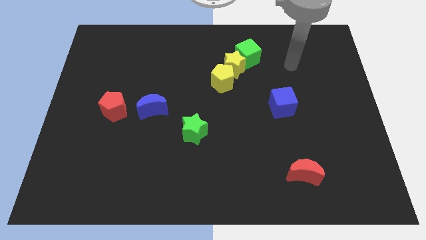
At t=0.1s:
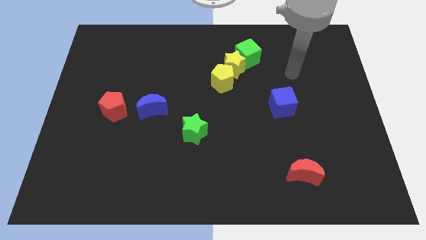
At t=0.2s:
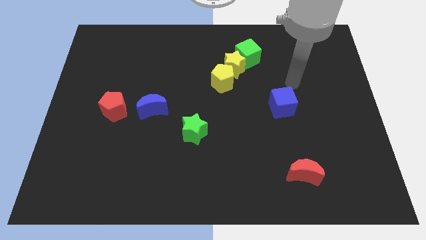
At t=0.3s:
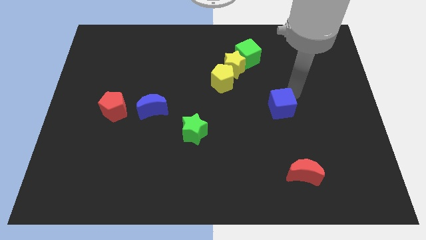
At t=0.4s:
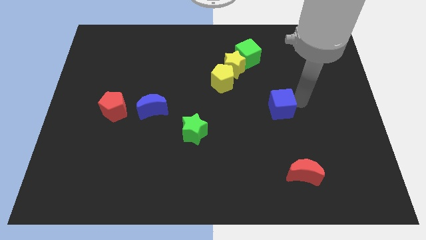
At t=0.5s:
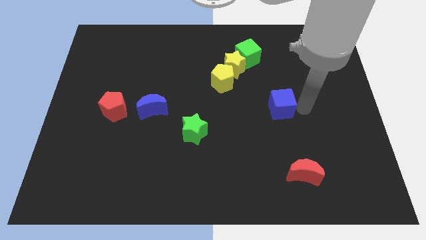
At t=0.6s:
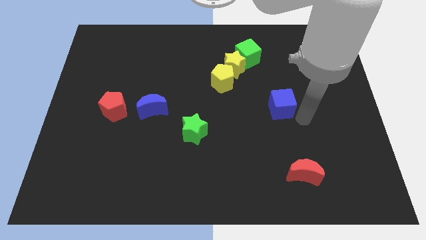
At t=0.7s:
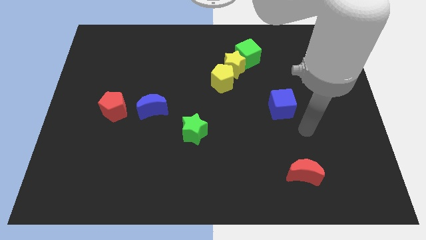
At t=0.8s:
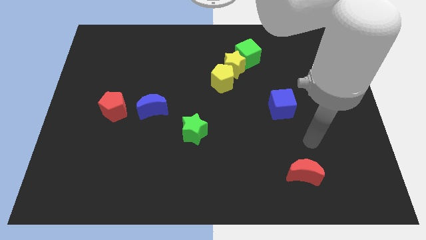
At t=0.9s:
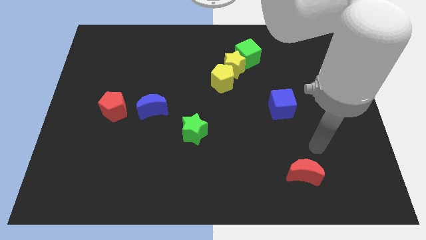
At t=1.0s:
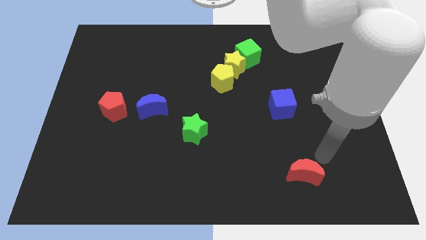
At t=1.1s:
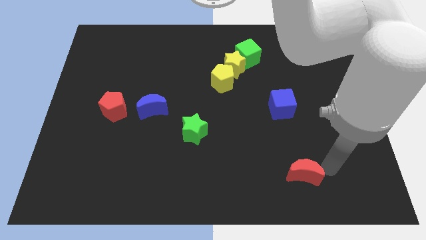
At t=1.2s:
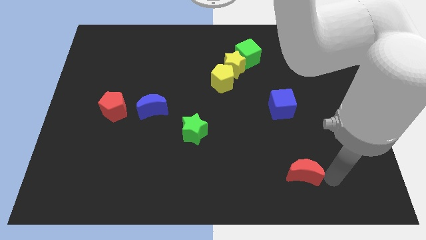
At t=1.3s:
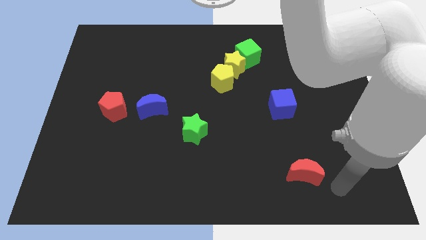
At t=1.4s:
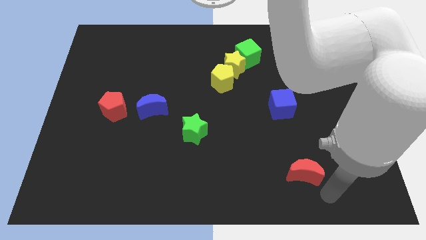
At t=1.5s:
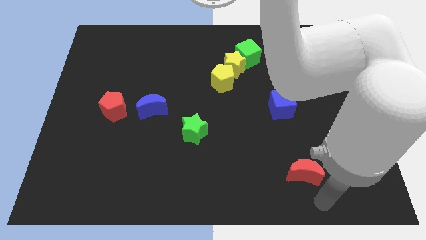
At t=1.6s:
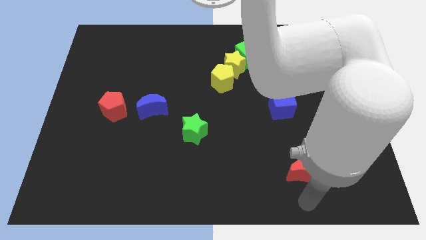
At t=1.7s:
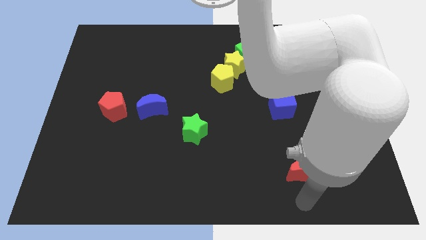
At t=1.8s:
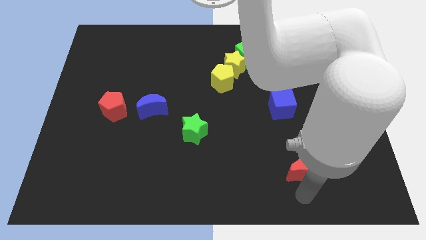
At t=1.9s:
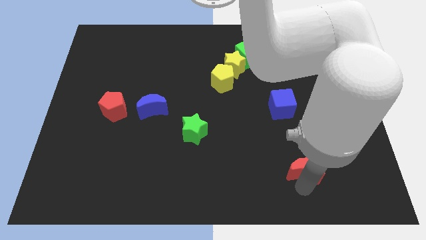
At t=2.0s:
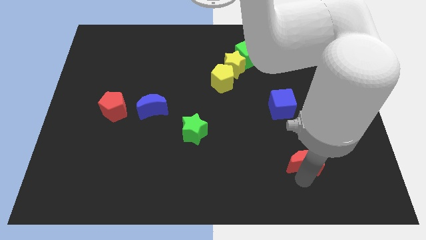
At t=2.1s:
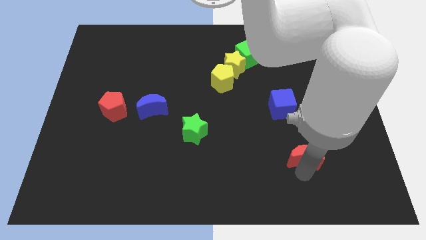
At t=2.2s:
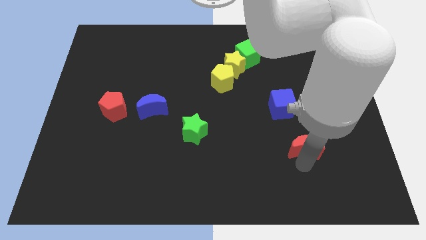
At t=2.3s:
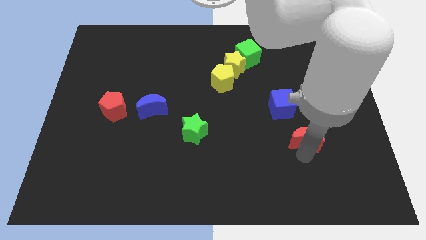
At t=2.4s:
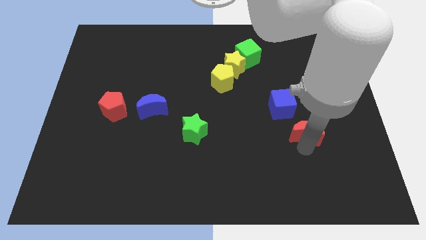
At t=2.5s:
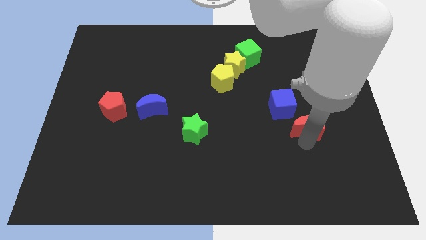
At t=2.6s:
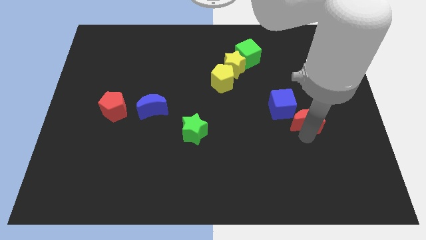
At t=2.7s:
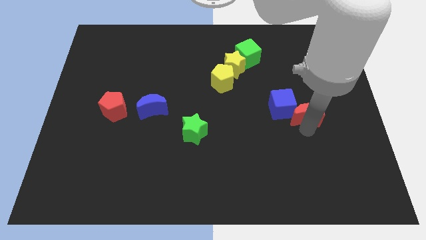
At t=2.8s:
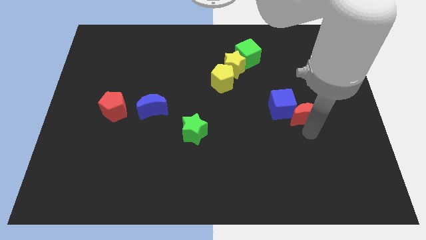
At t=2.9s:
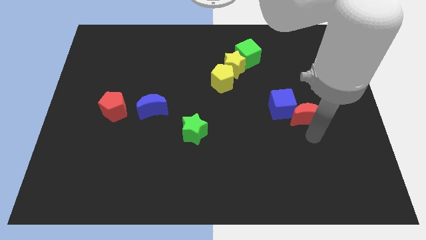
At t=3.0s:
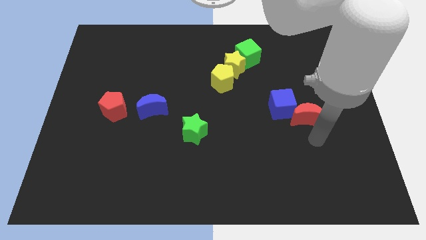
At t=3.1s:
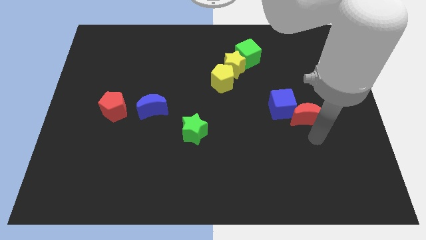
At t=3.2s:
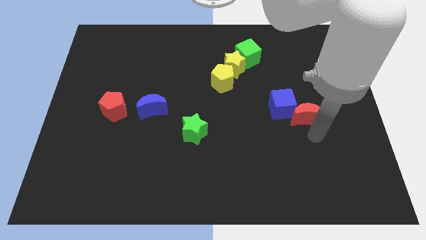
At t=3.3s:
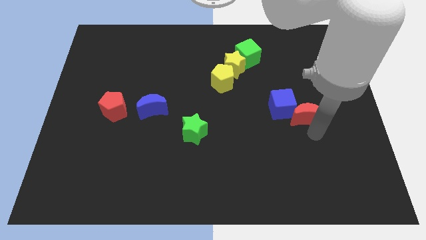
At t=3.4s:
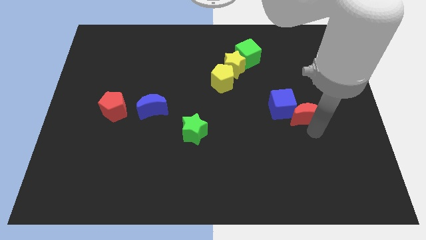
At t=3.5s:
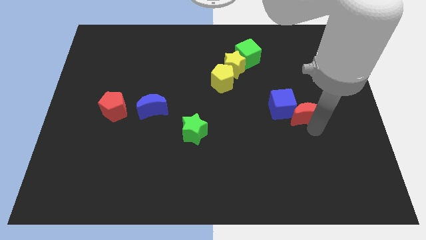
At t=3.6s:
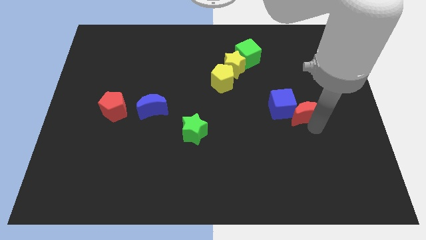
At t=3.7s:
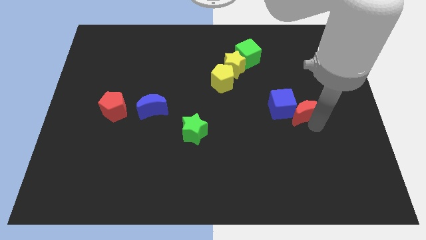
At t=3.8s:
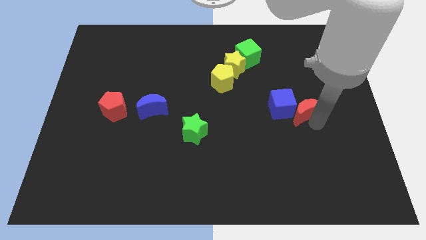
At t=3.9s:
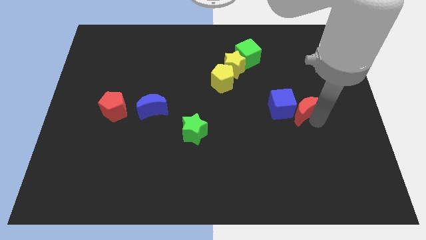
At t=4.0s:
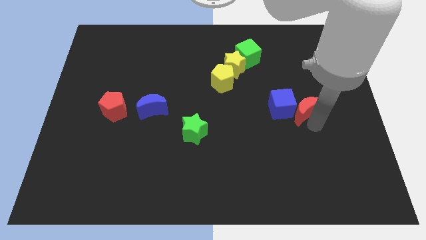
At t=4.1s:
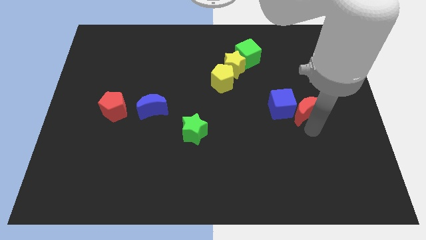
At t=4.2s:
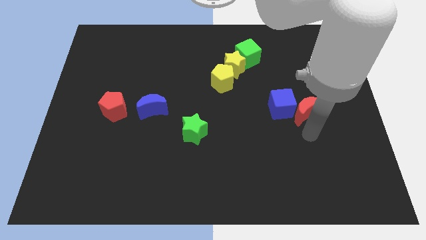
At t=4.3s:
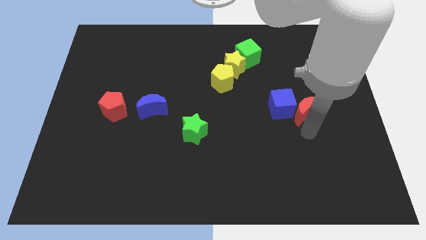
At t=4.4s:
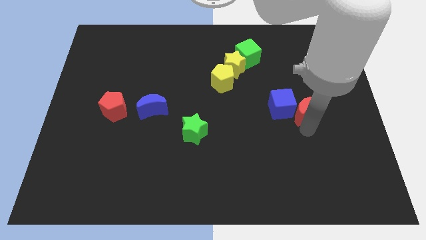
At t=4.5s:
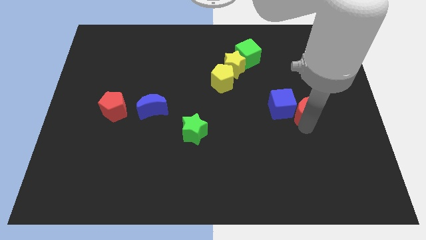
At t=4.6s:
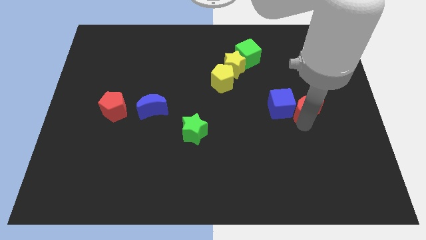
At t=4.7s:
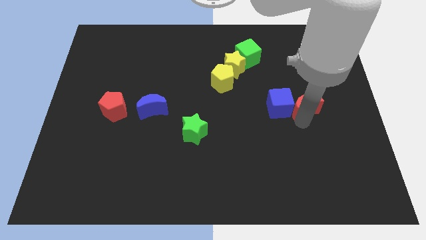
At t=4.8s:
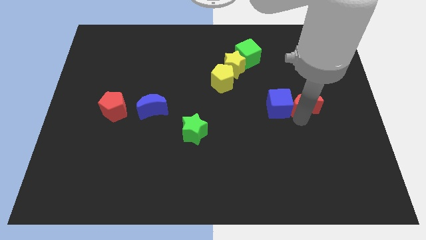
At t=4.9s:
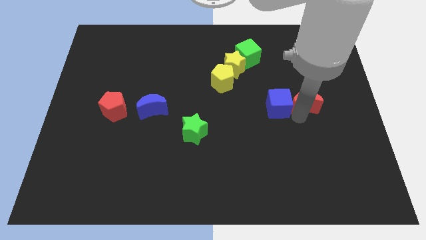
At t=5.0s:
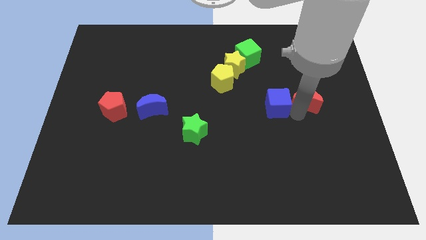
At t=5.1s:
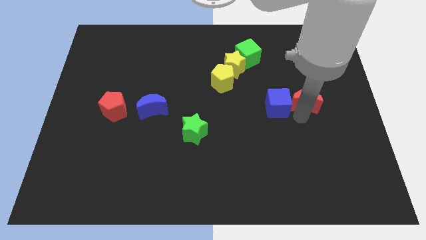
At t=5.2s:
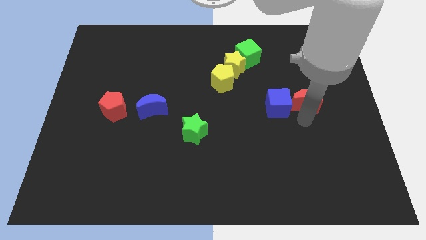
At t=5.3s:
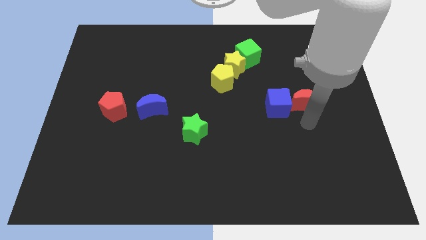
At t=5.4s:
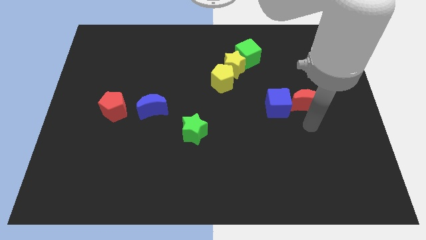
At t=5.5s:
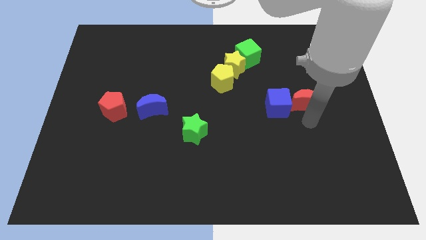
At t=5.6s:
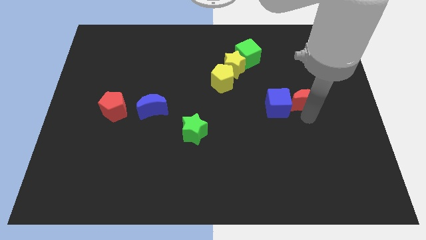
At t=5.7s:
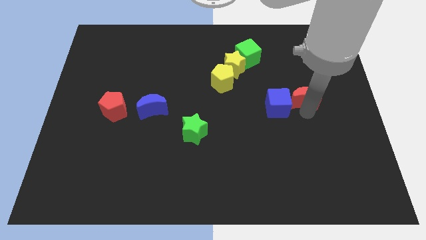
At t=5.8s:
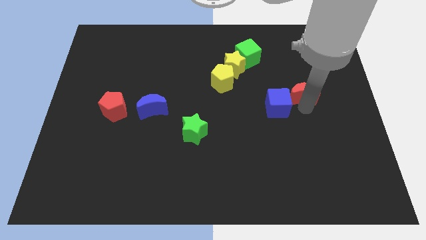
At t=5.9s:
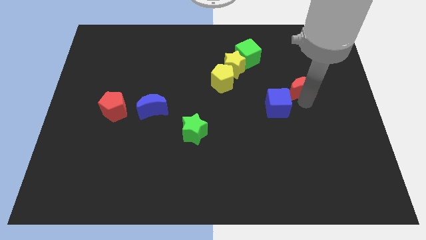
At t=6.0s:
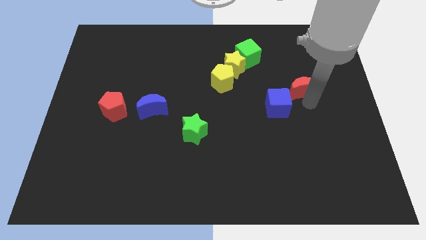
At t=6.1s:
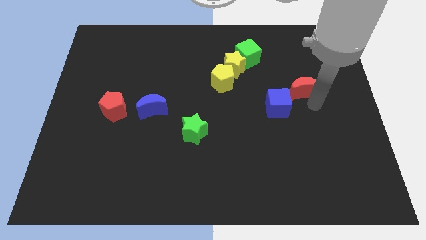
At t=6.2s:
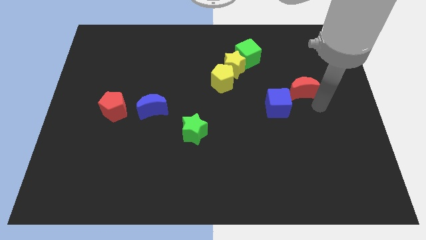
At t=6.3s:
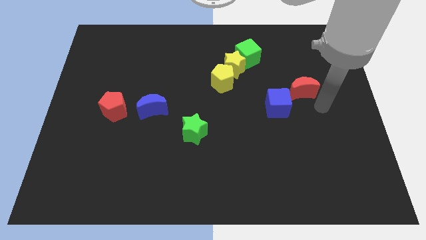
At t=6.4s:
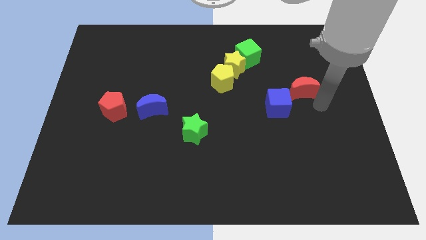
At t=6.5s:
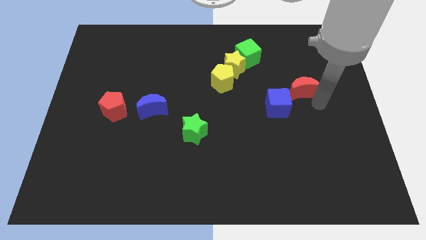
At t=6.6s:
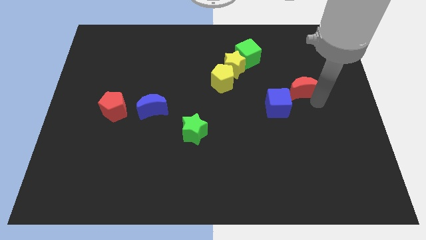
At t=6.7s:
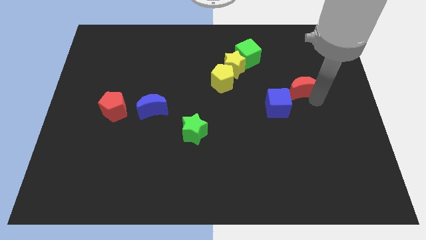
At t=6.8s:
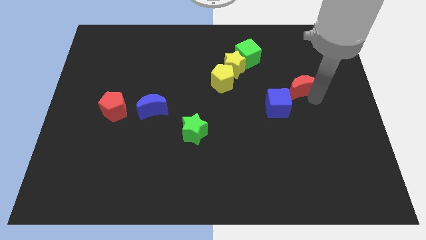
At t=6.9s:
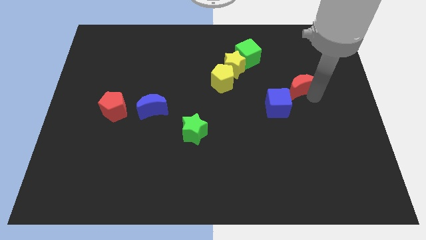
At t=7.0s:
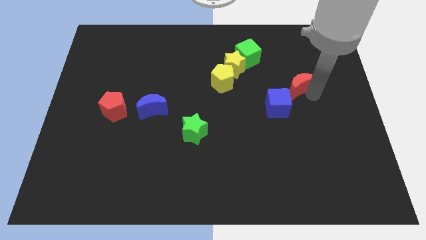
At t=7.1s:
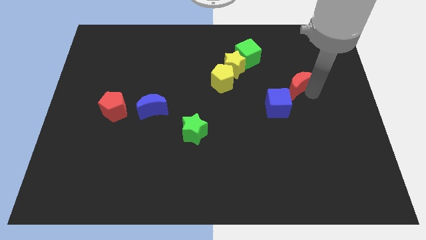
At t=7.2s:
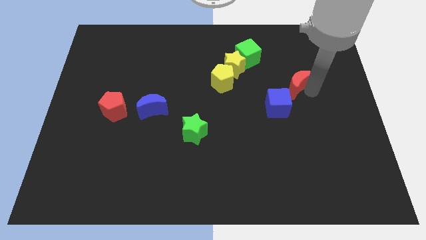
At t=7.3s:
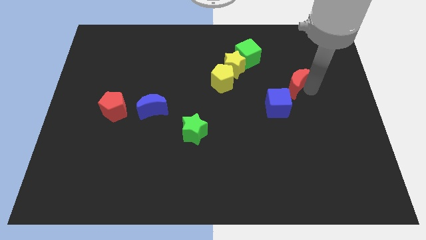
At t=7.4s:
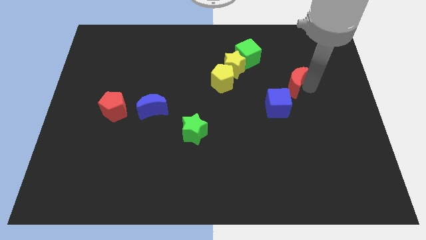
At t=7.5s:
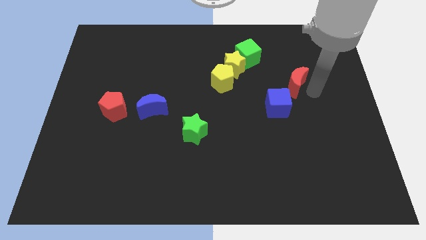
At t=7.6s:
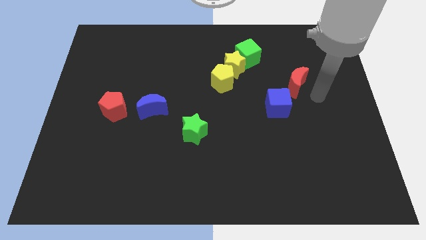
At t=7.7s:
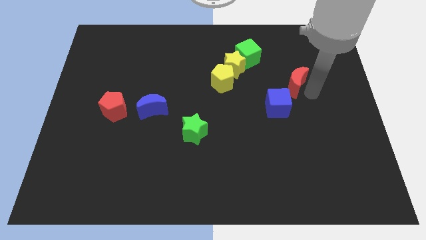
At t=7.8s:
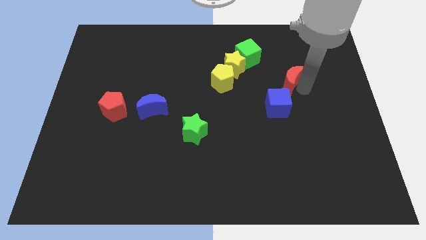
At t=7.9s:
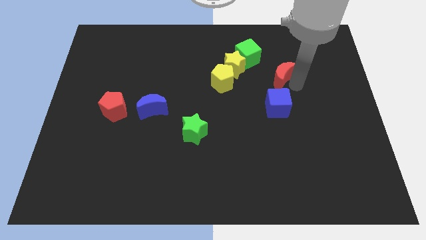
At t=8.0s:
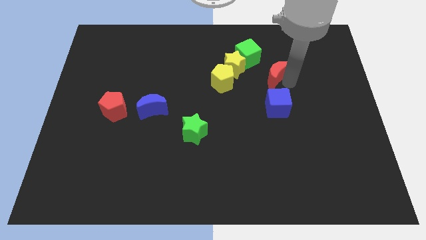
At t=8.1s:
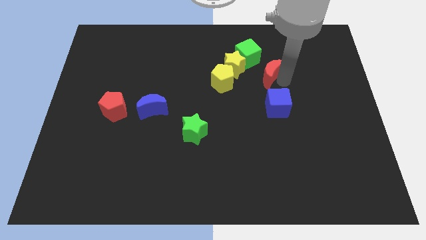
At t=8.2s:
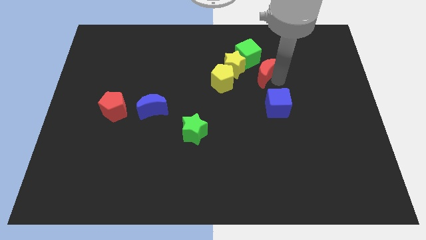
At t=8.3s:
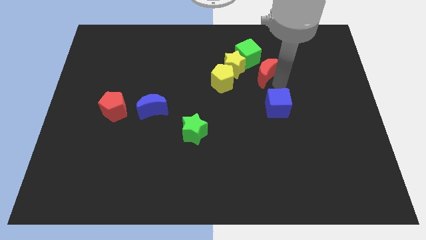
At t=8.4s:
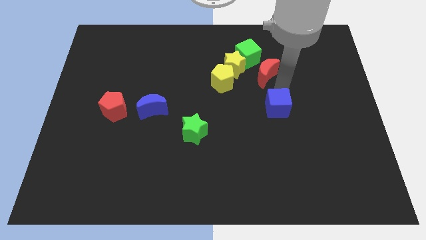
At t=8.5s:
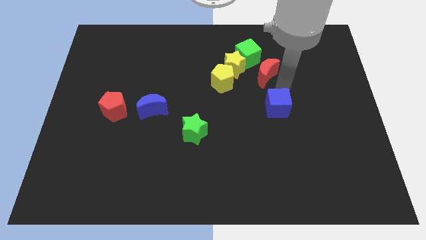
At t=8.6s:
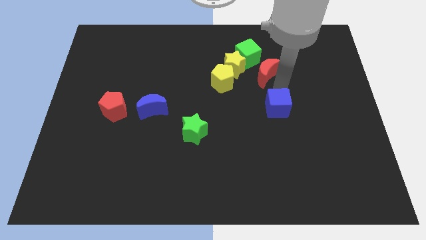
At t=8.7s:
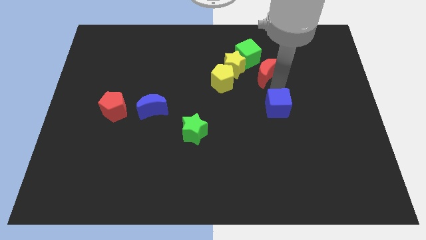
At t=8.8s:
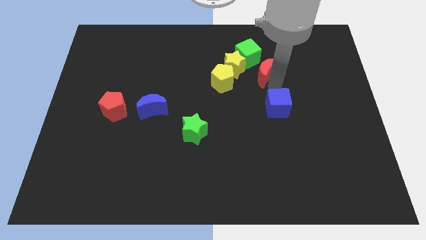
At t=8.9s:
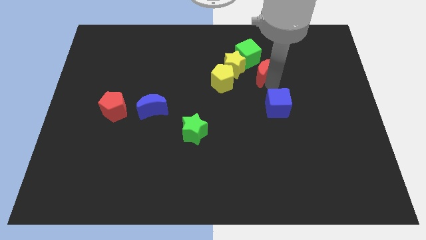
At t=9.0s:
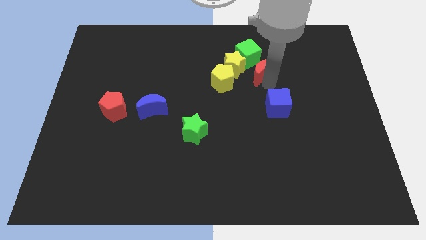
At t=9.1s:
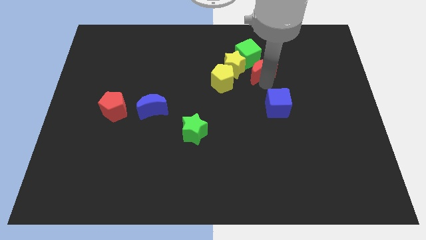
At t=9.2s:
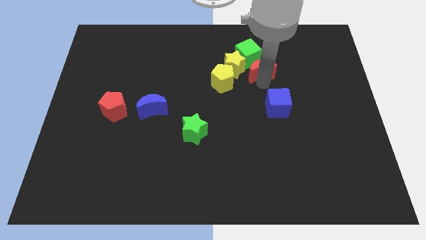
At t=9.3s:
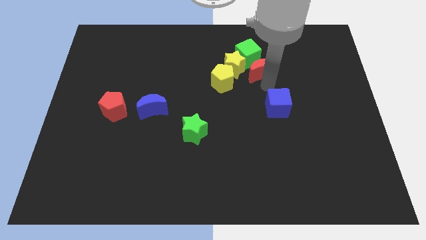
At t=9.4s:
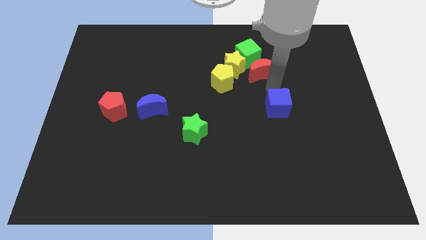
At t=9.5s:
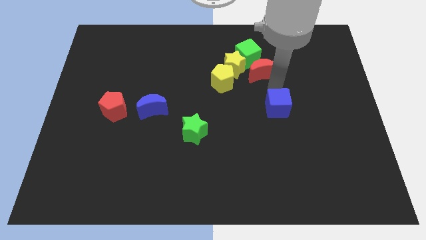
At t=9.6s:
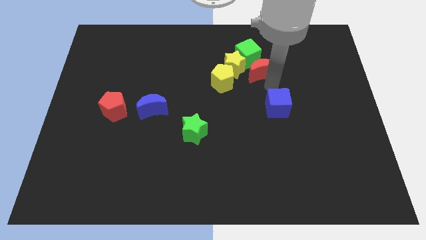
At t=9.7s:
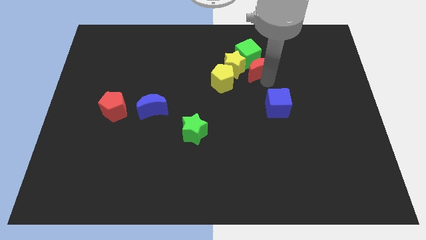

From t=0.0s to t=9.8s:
put the red moon to the green cube
